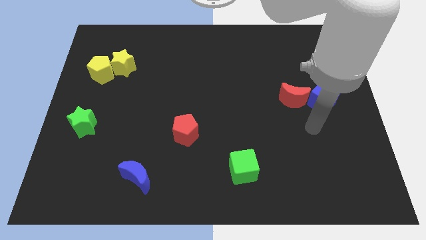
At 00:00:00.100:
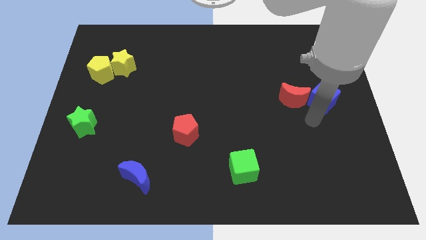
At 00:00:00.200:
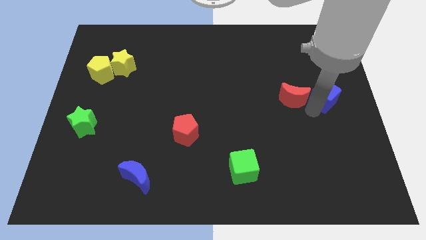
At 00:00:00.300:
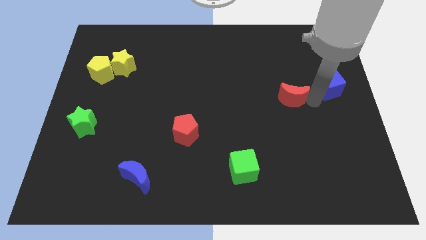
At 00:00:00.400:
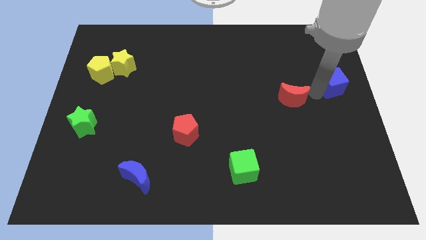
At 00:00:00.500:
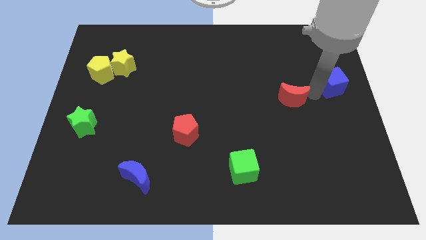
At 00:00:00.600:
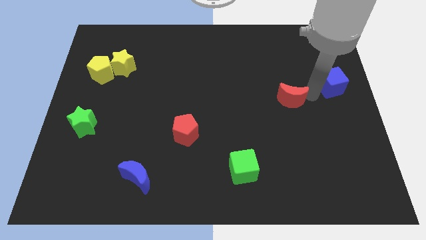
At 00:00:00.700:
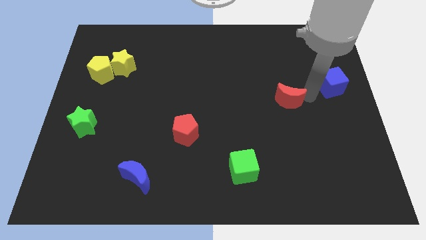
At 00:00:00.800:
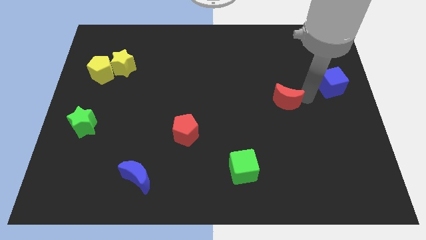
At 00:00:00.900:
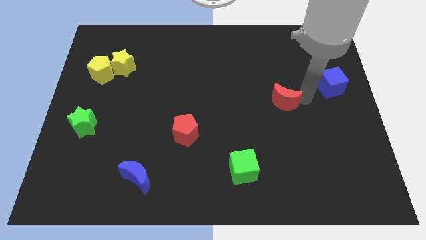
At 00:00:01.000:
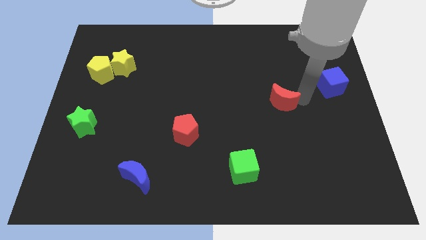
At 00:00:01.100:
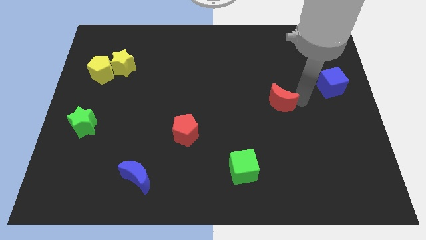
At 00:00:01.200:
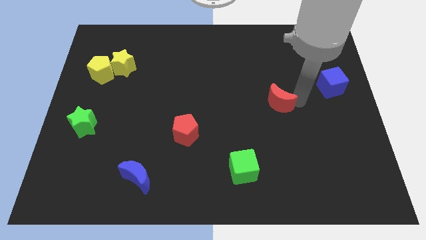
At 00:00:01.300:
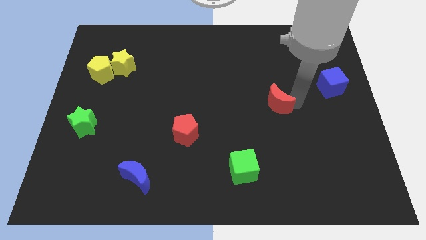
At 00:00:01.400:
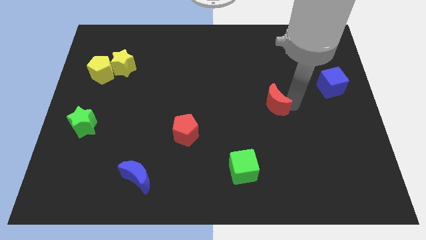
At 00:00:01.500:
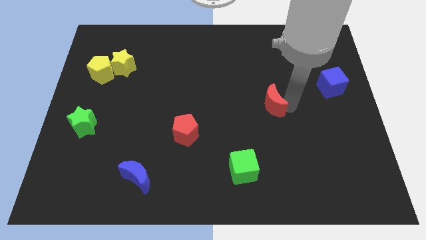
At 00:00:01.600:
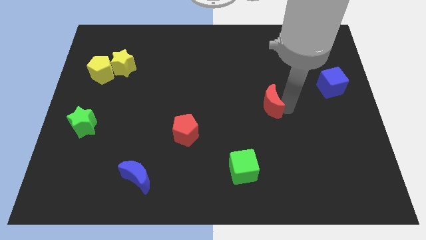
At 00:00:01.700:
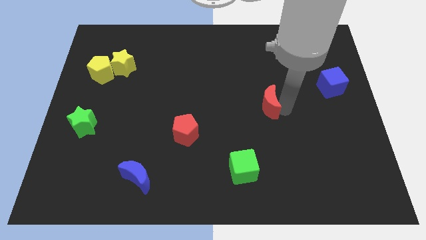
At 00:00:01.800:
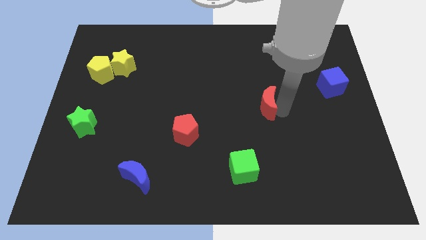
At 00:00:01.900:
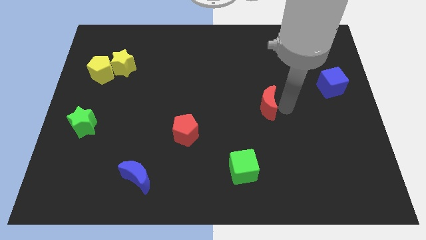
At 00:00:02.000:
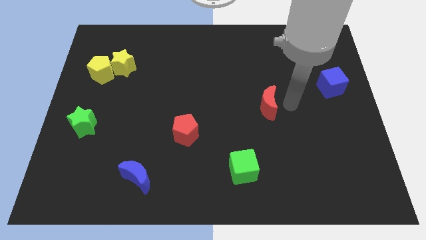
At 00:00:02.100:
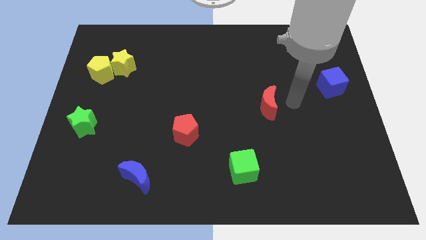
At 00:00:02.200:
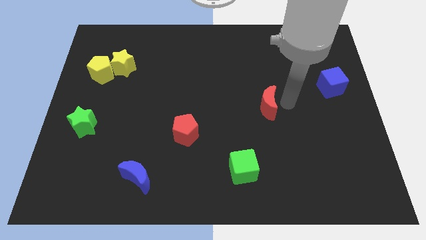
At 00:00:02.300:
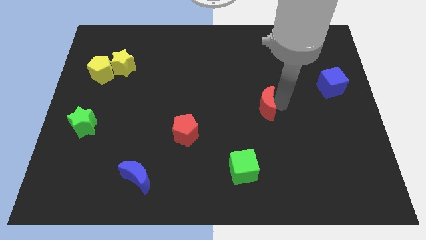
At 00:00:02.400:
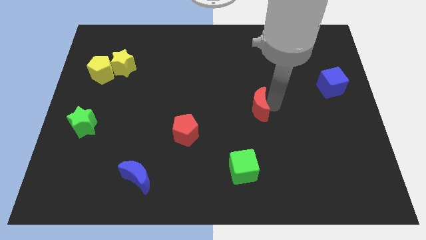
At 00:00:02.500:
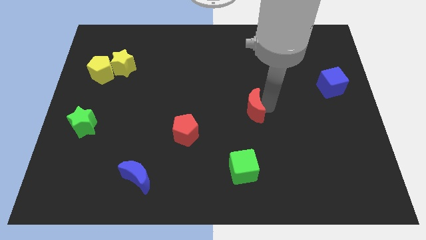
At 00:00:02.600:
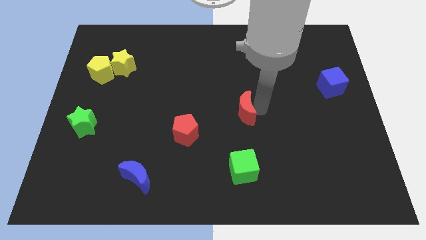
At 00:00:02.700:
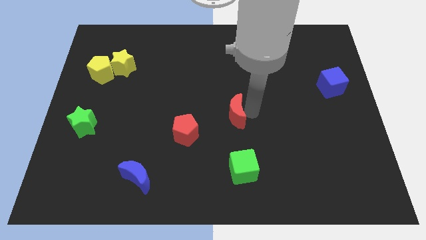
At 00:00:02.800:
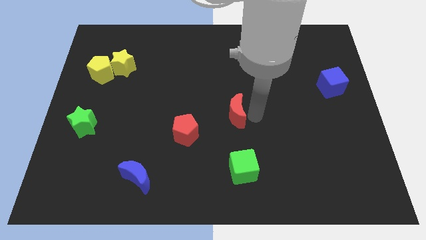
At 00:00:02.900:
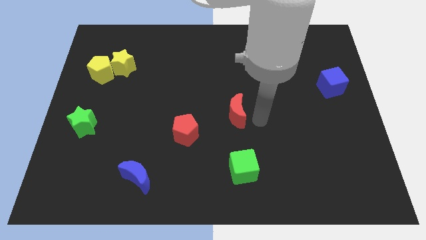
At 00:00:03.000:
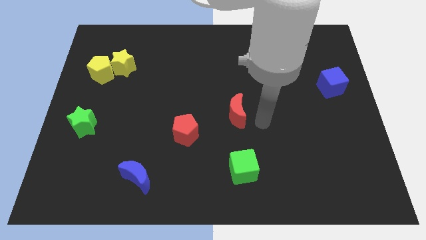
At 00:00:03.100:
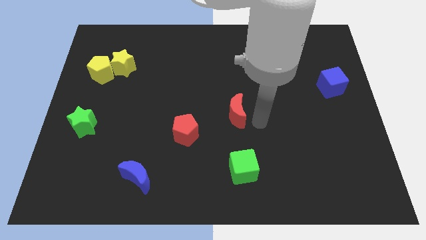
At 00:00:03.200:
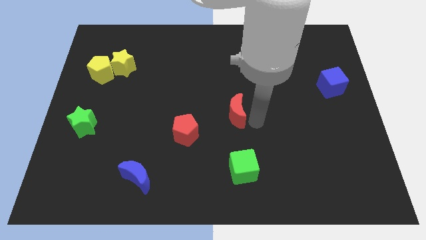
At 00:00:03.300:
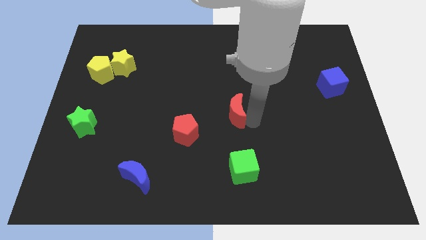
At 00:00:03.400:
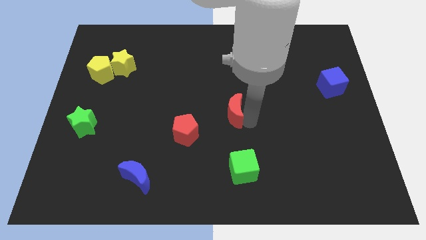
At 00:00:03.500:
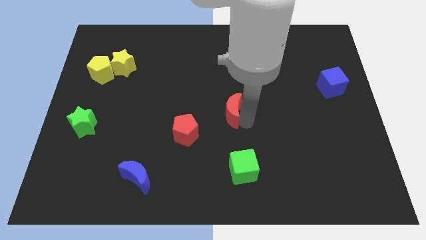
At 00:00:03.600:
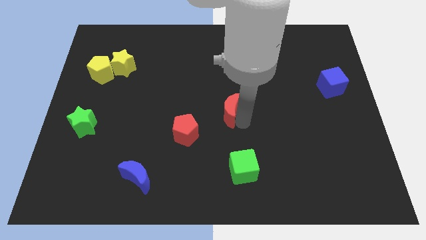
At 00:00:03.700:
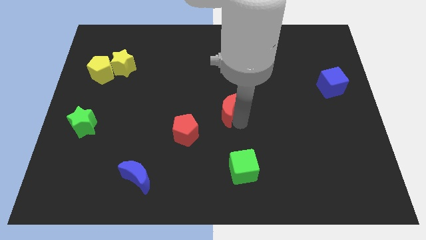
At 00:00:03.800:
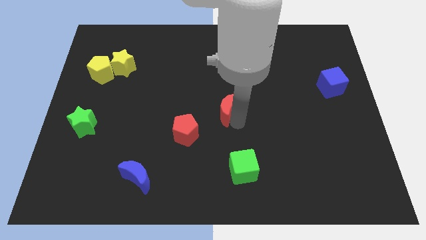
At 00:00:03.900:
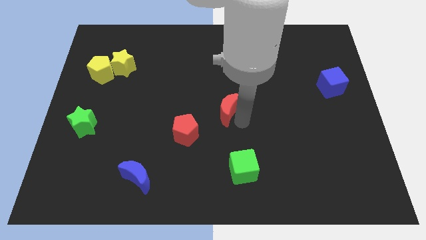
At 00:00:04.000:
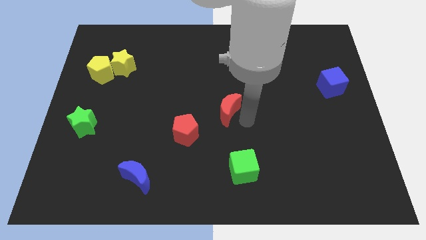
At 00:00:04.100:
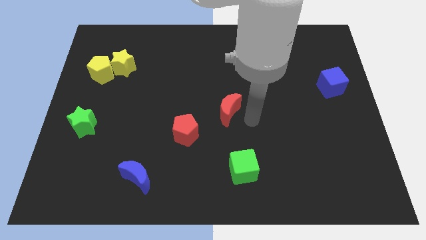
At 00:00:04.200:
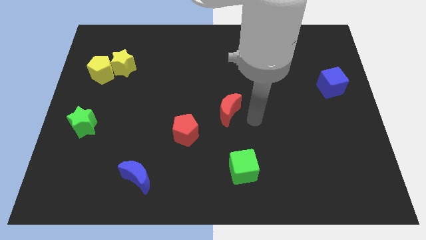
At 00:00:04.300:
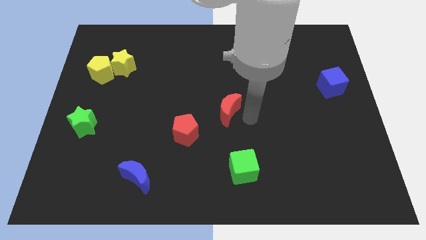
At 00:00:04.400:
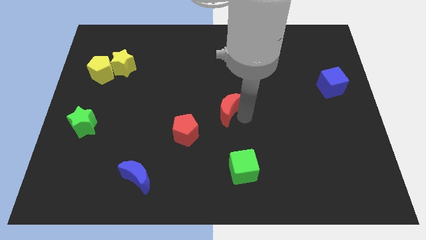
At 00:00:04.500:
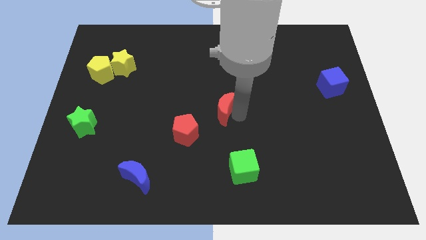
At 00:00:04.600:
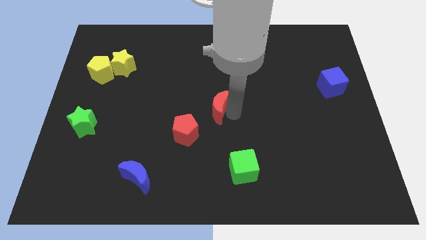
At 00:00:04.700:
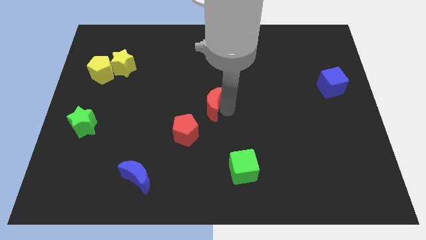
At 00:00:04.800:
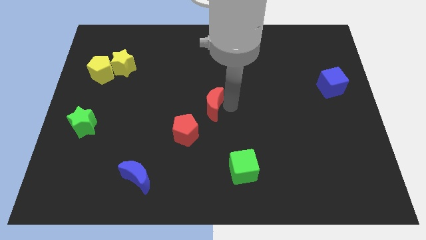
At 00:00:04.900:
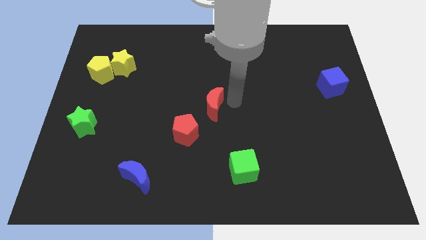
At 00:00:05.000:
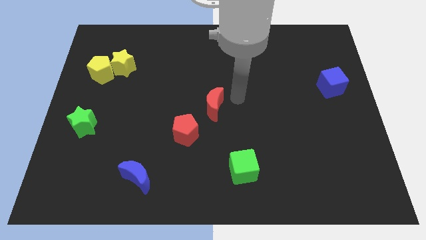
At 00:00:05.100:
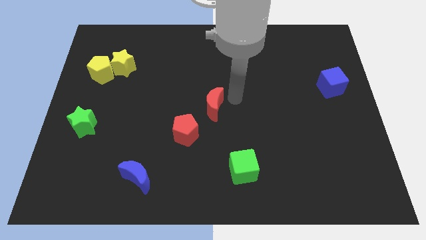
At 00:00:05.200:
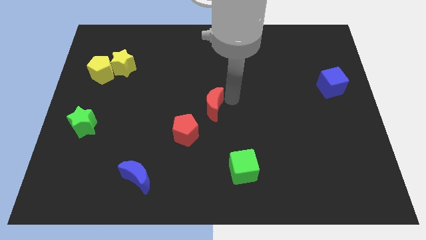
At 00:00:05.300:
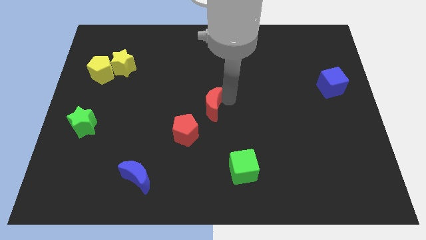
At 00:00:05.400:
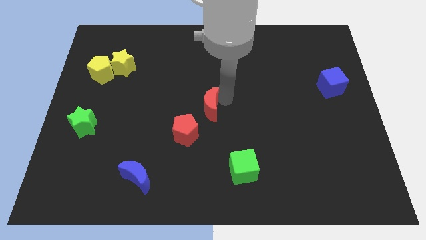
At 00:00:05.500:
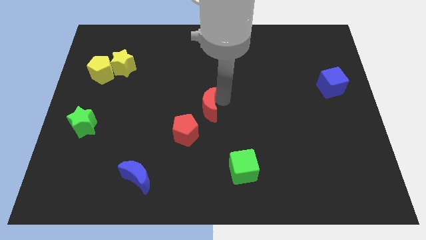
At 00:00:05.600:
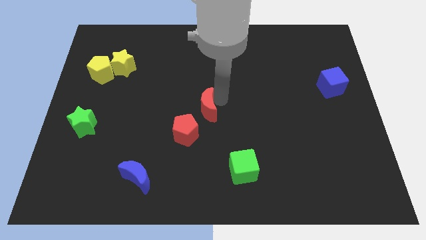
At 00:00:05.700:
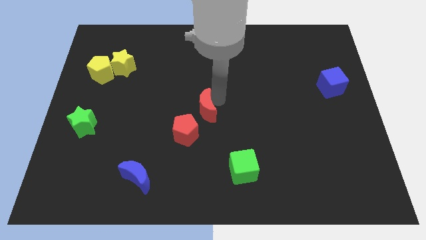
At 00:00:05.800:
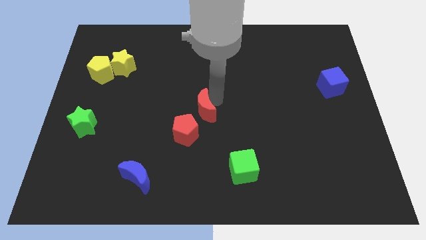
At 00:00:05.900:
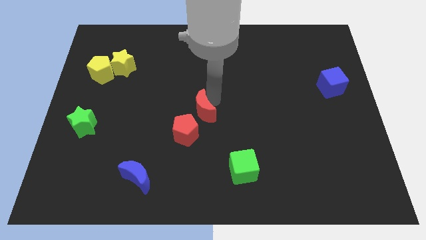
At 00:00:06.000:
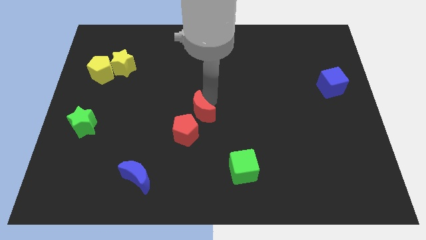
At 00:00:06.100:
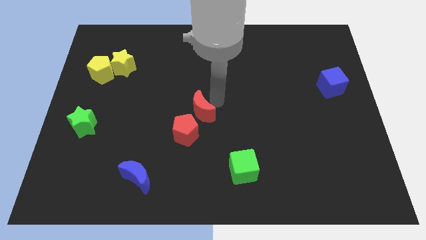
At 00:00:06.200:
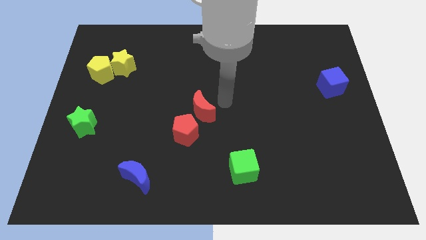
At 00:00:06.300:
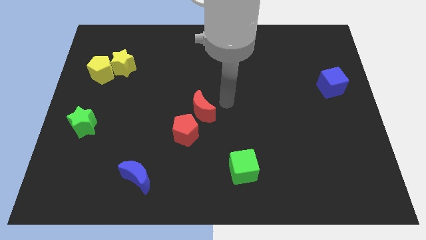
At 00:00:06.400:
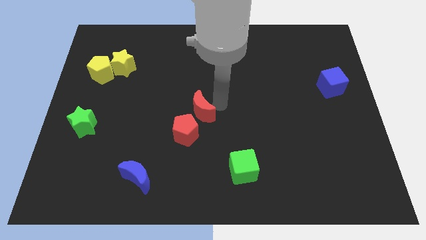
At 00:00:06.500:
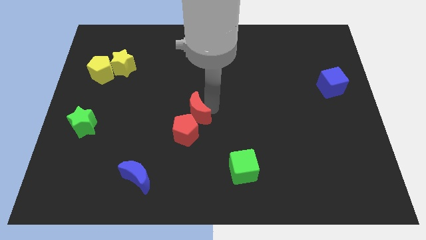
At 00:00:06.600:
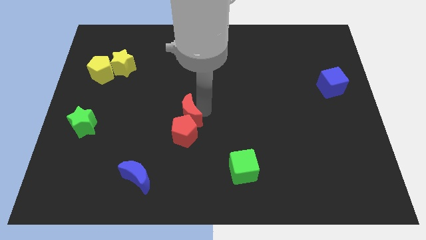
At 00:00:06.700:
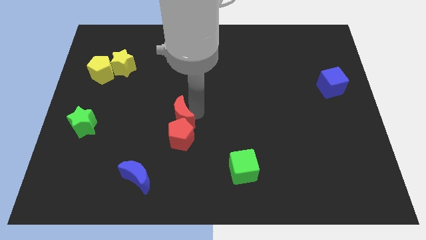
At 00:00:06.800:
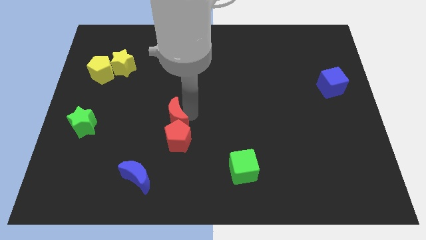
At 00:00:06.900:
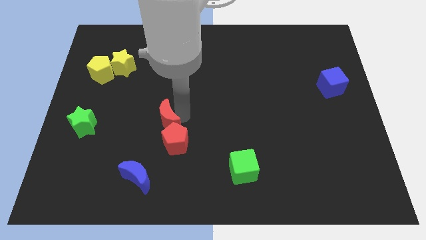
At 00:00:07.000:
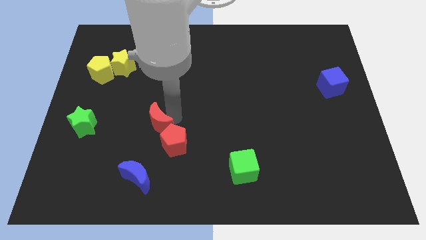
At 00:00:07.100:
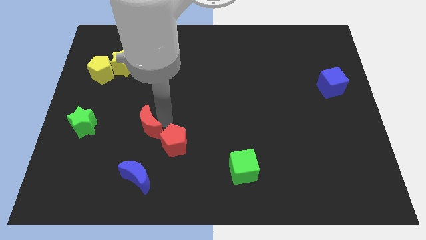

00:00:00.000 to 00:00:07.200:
slide the red moon just left of the red pentagon
